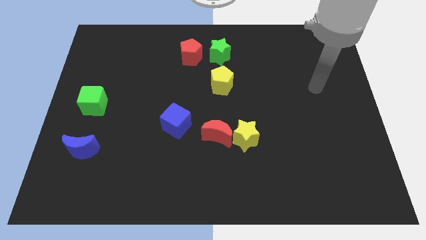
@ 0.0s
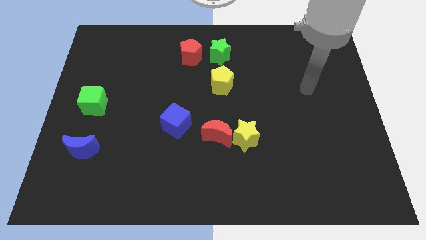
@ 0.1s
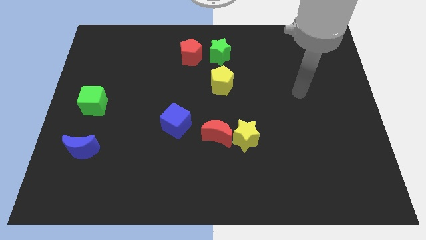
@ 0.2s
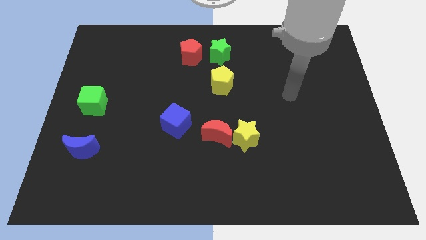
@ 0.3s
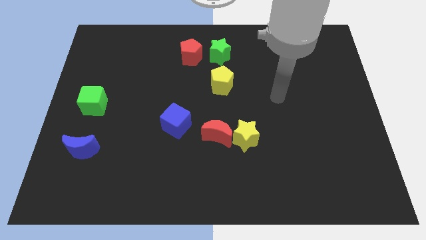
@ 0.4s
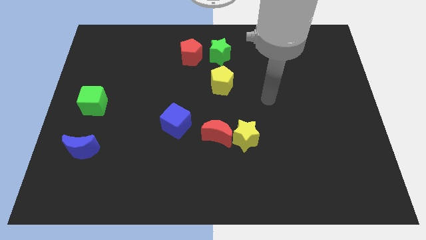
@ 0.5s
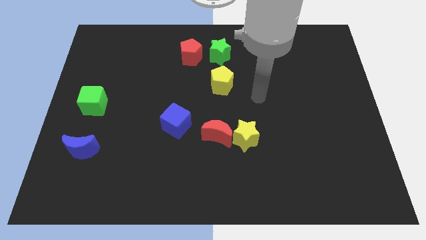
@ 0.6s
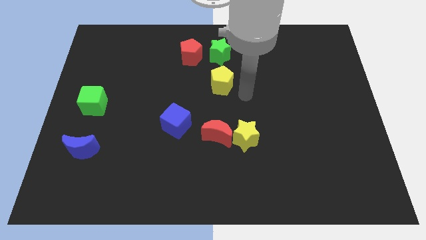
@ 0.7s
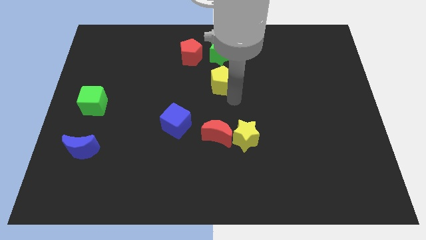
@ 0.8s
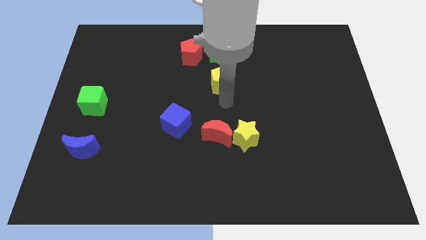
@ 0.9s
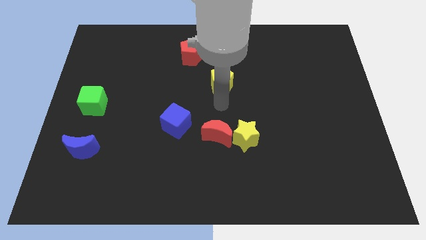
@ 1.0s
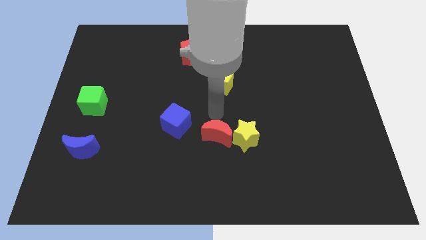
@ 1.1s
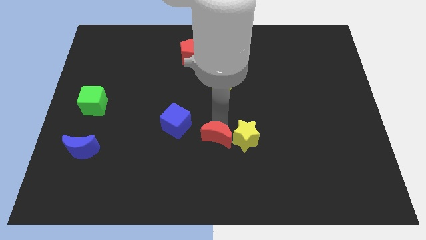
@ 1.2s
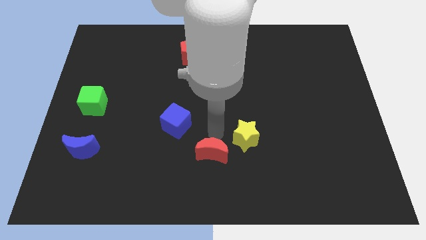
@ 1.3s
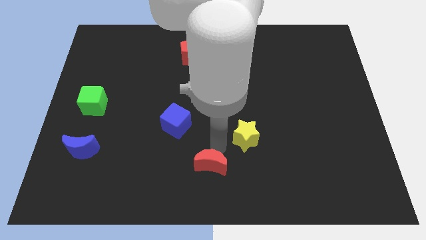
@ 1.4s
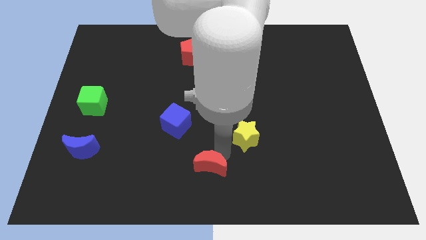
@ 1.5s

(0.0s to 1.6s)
separate the yellow star from the red moon

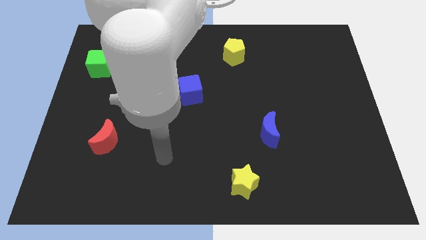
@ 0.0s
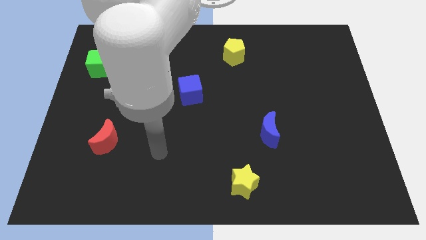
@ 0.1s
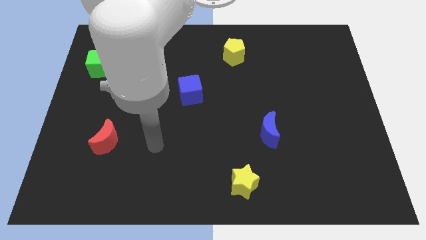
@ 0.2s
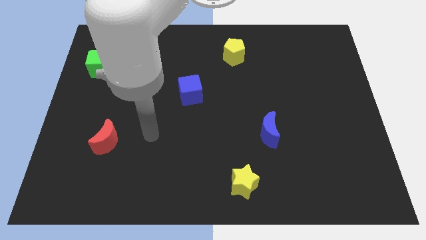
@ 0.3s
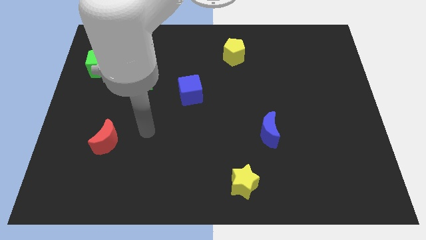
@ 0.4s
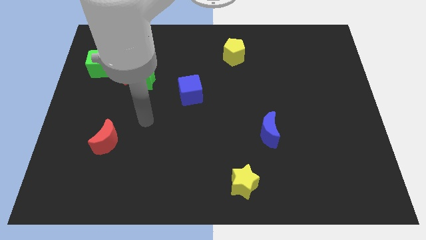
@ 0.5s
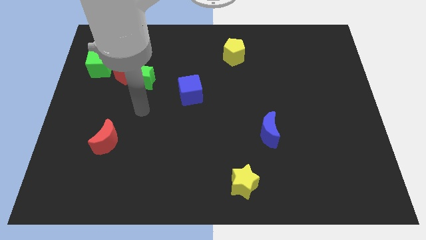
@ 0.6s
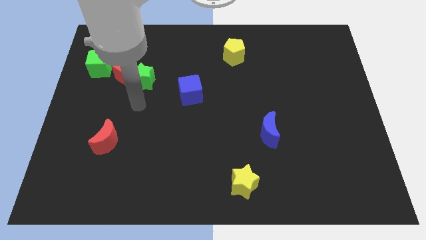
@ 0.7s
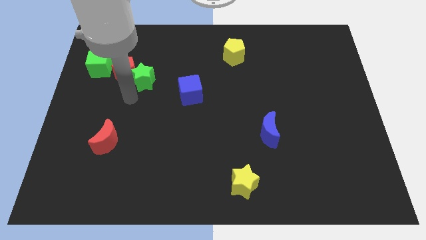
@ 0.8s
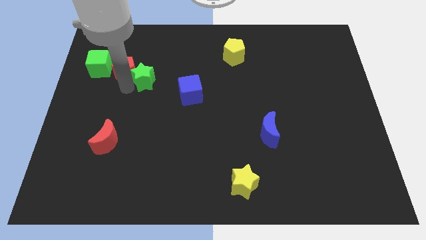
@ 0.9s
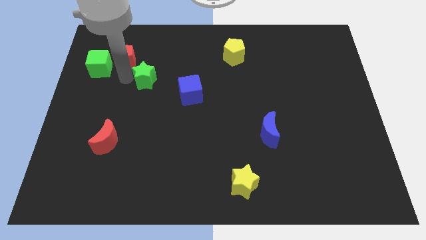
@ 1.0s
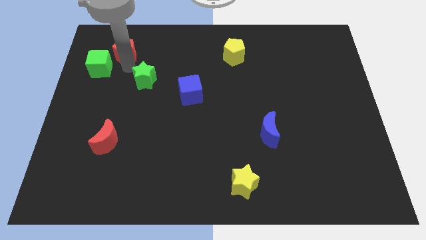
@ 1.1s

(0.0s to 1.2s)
move the green star away from the red pentagon

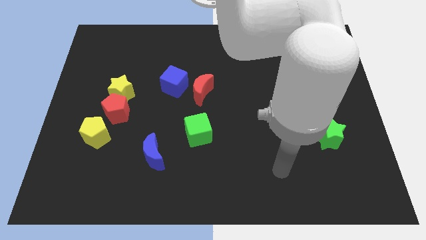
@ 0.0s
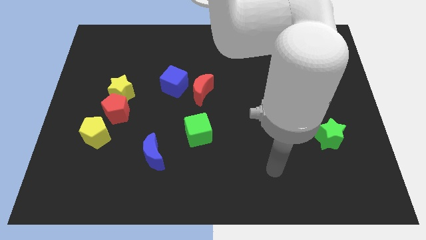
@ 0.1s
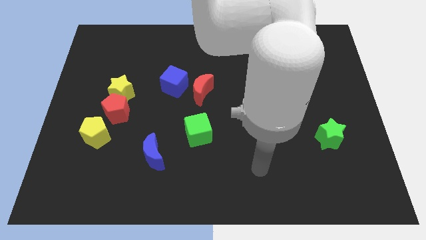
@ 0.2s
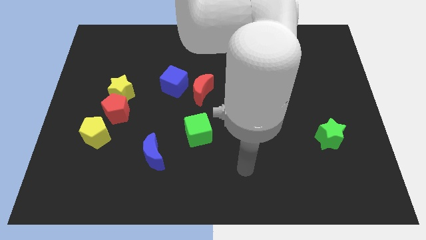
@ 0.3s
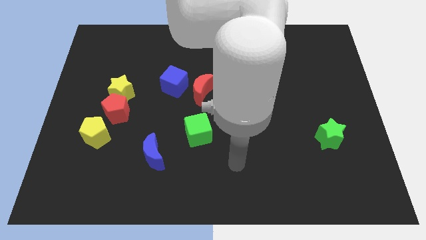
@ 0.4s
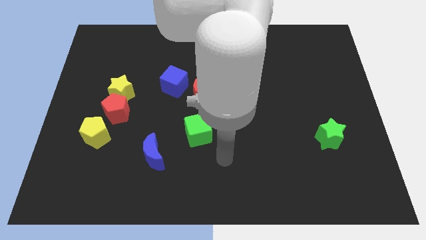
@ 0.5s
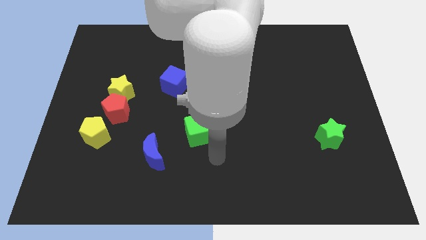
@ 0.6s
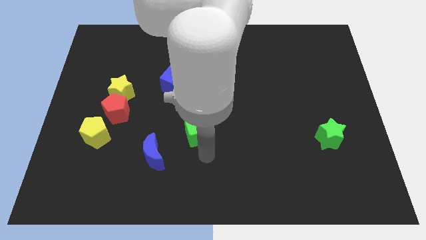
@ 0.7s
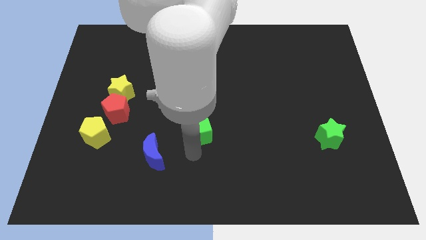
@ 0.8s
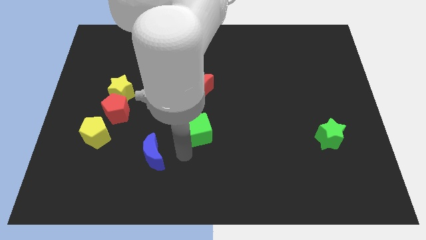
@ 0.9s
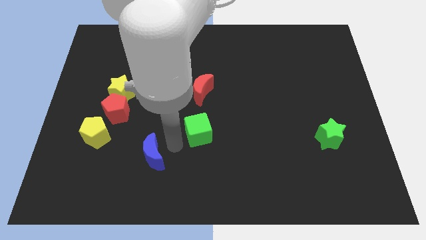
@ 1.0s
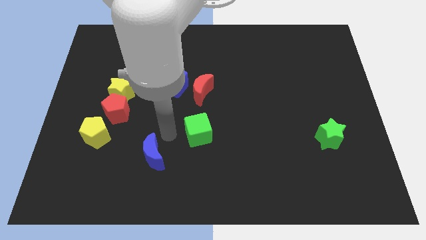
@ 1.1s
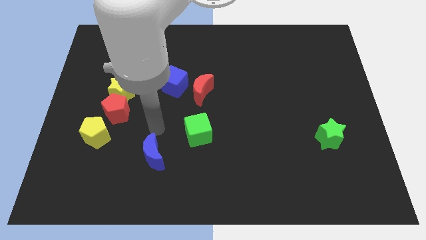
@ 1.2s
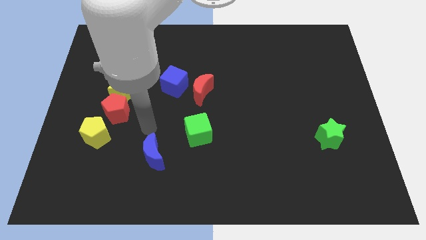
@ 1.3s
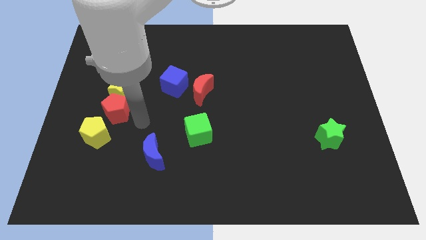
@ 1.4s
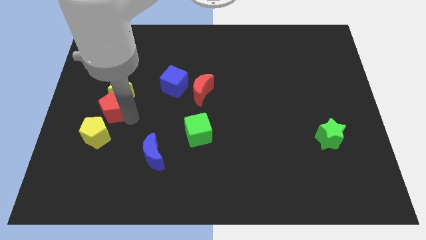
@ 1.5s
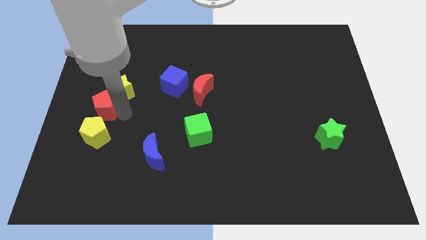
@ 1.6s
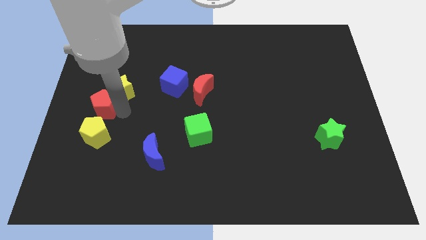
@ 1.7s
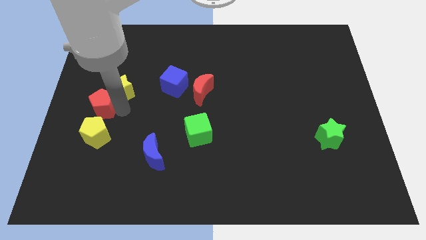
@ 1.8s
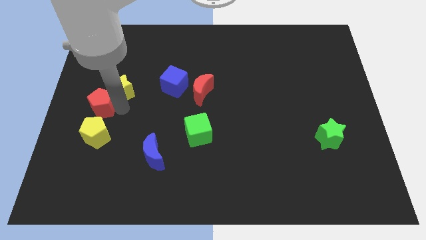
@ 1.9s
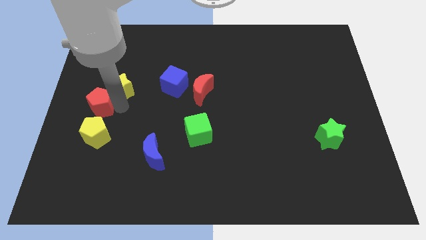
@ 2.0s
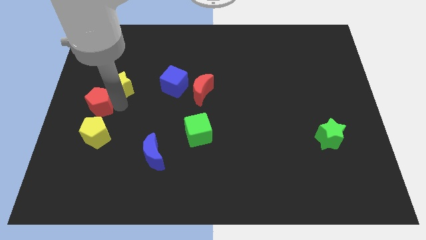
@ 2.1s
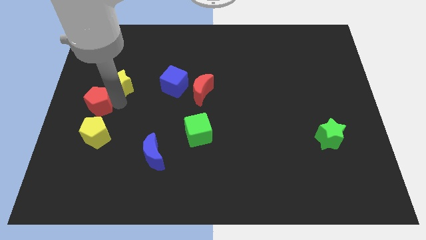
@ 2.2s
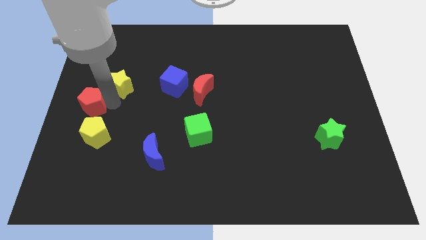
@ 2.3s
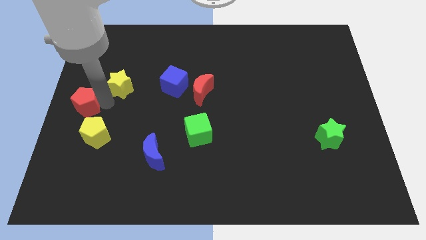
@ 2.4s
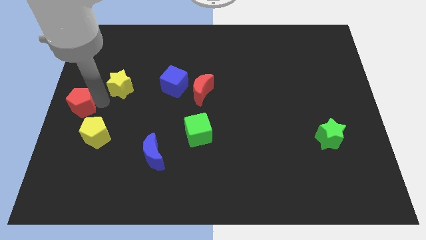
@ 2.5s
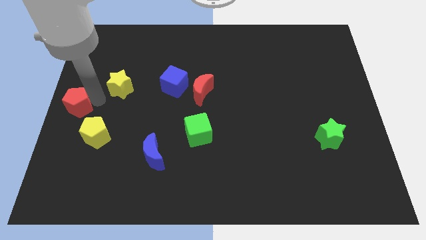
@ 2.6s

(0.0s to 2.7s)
move the yellow star away from the red pentagon

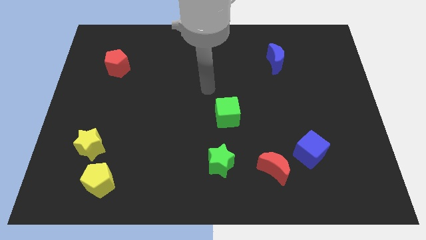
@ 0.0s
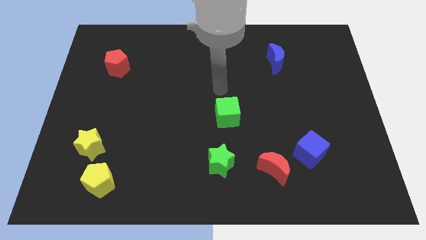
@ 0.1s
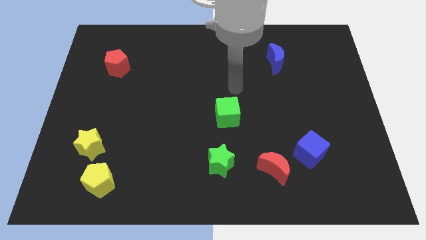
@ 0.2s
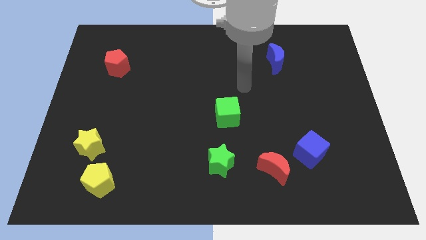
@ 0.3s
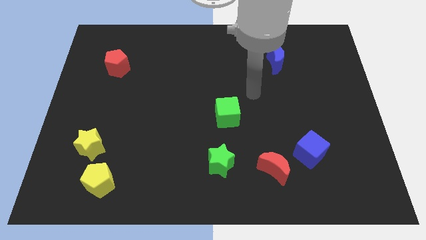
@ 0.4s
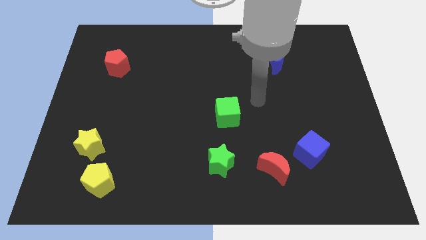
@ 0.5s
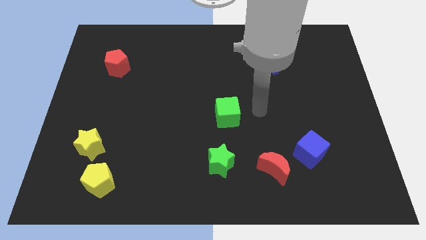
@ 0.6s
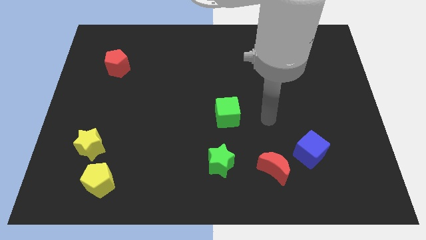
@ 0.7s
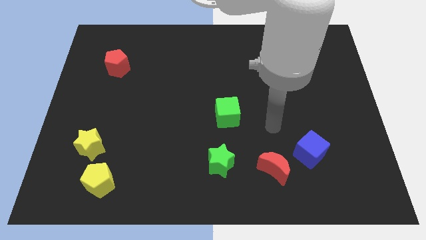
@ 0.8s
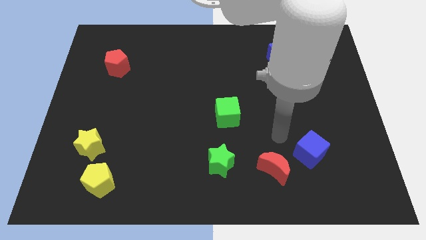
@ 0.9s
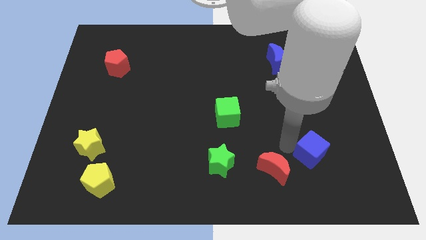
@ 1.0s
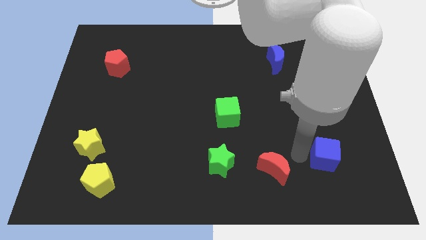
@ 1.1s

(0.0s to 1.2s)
move the red moon away from the blue cube

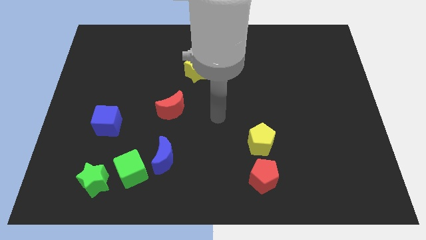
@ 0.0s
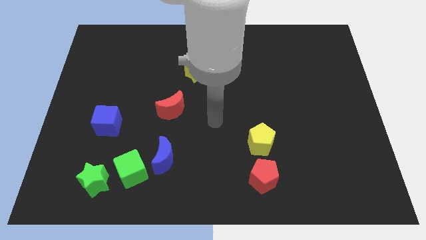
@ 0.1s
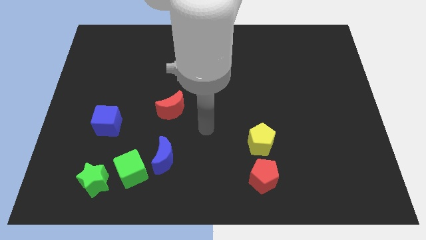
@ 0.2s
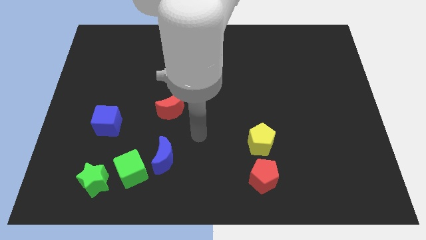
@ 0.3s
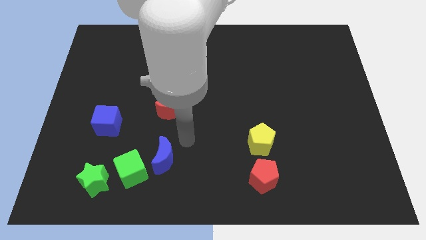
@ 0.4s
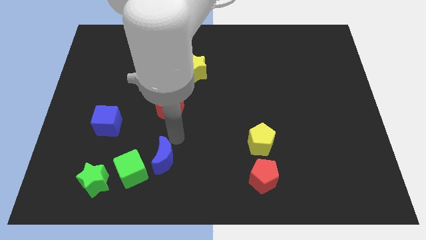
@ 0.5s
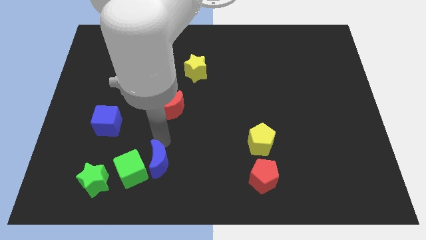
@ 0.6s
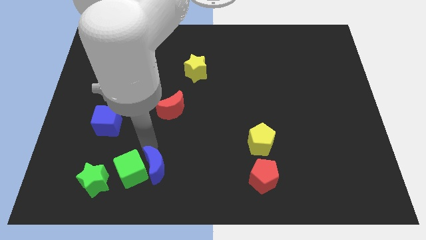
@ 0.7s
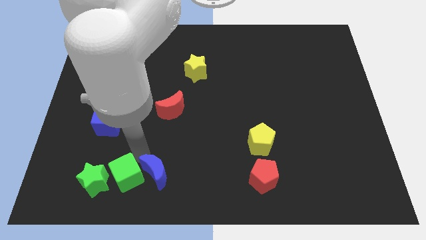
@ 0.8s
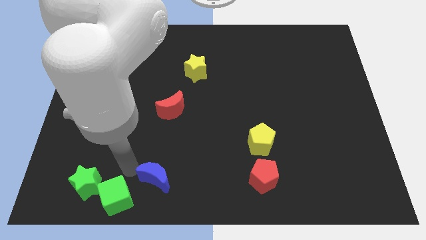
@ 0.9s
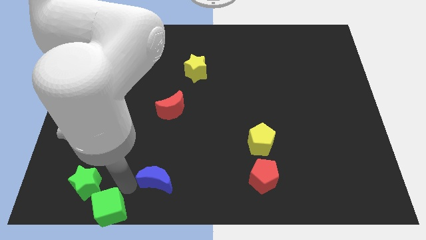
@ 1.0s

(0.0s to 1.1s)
separate the blue moon from the green cube

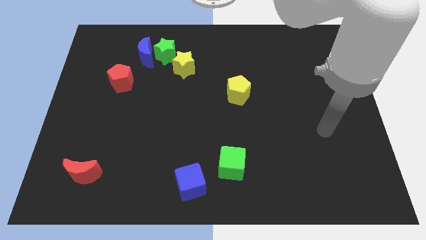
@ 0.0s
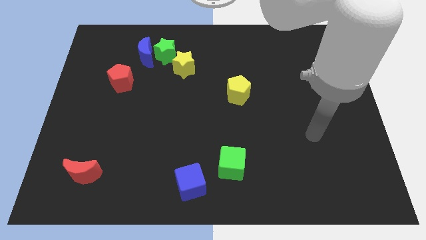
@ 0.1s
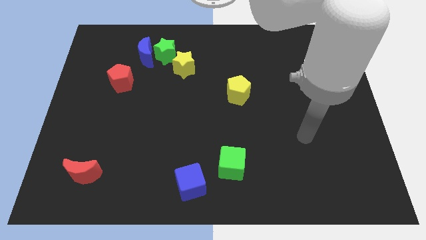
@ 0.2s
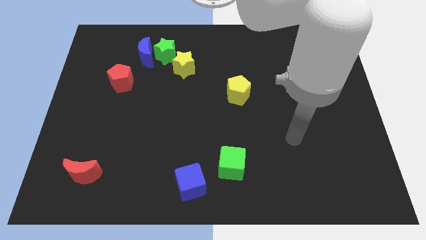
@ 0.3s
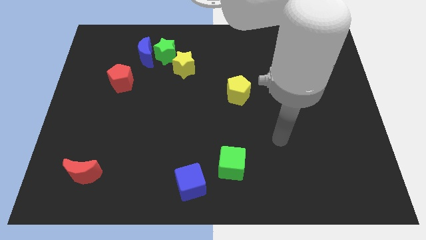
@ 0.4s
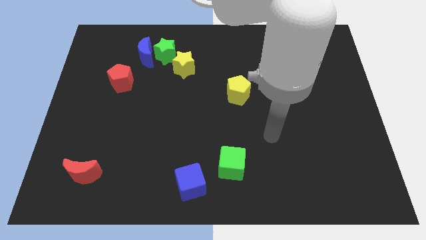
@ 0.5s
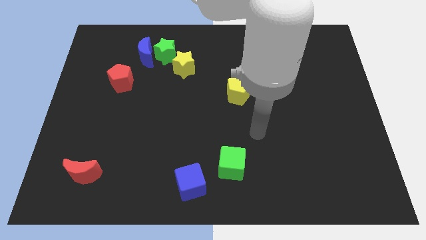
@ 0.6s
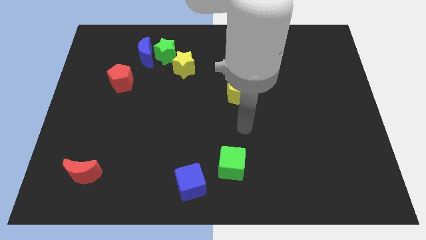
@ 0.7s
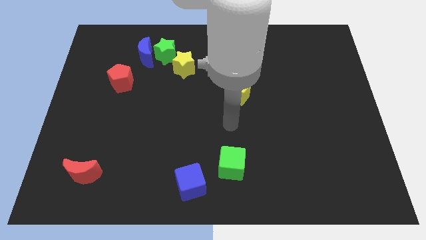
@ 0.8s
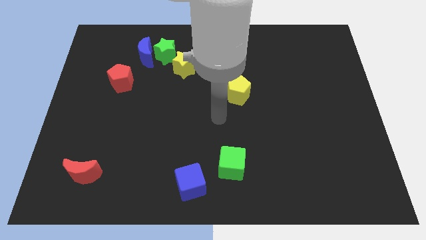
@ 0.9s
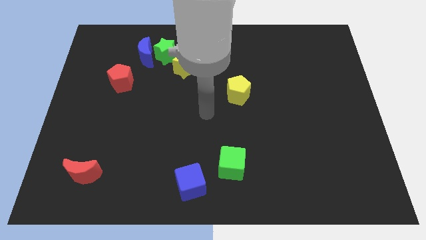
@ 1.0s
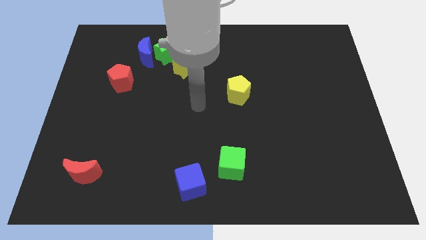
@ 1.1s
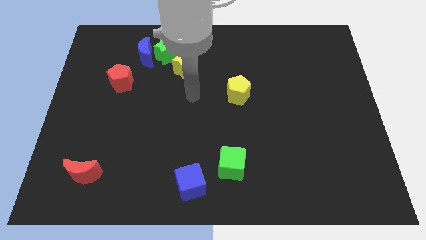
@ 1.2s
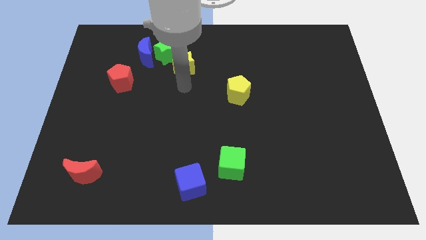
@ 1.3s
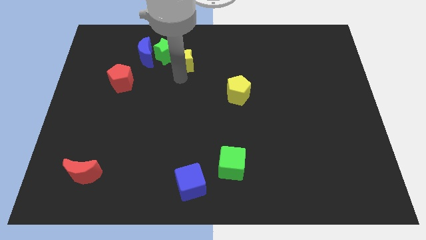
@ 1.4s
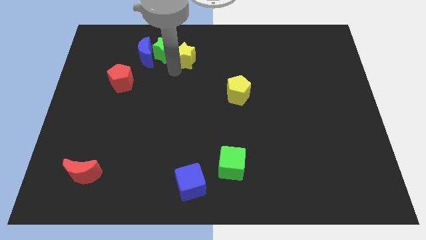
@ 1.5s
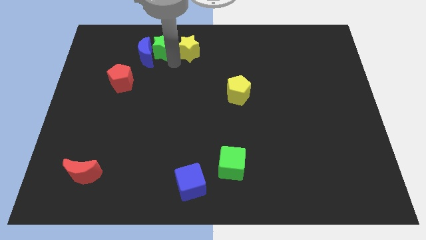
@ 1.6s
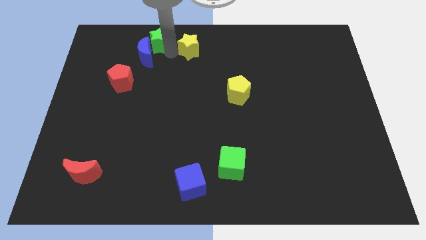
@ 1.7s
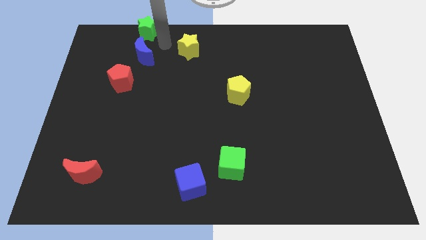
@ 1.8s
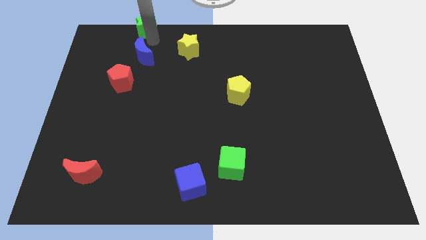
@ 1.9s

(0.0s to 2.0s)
separate the blue moon from the green star
